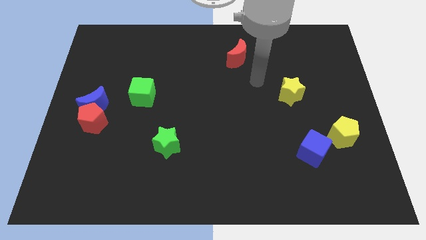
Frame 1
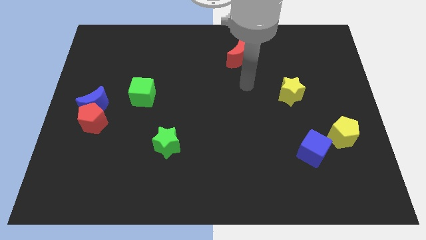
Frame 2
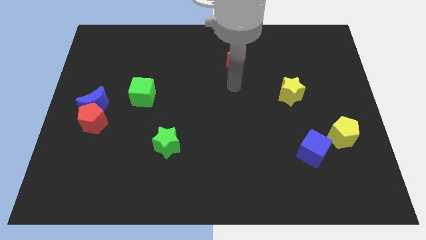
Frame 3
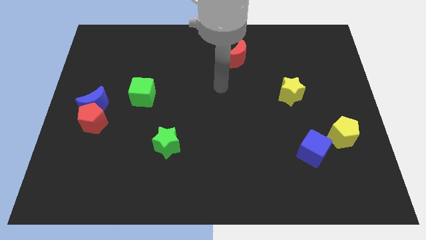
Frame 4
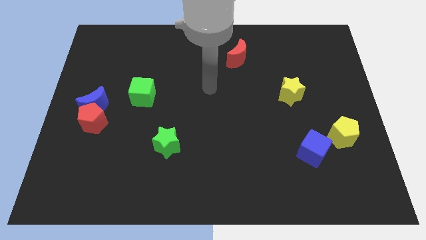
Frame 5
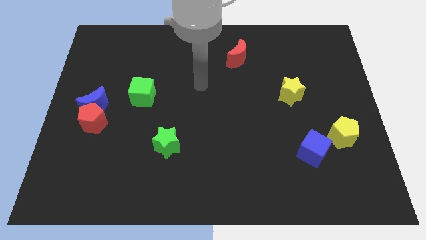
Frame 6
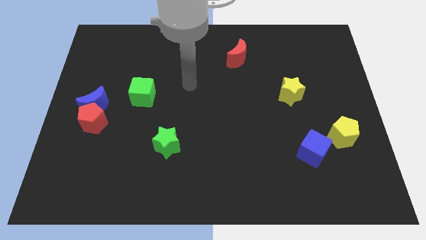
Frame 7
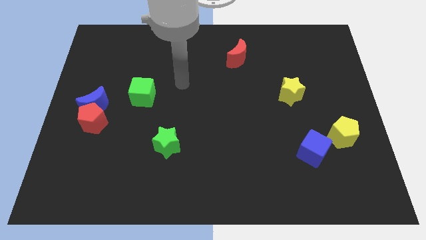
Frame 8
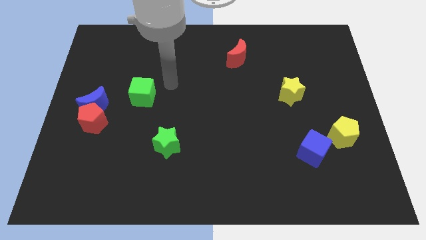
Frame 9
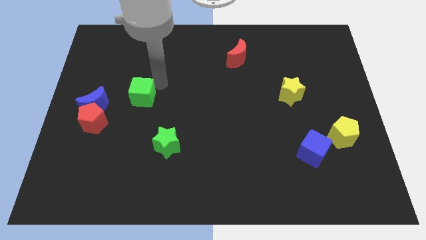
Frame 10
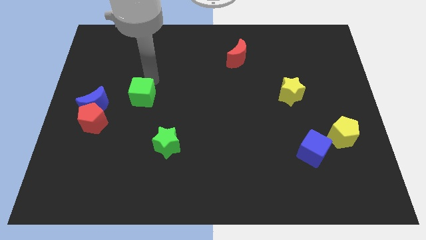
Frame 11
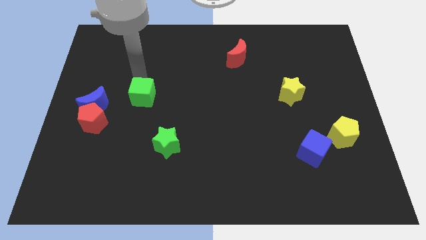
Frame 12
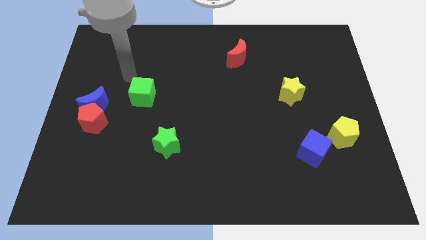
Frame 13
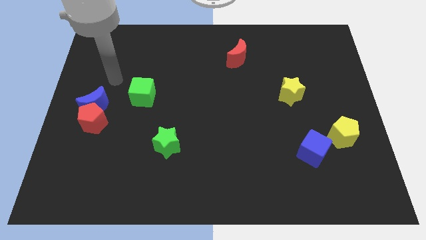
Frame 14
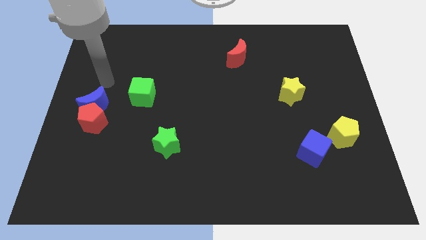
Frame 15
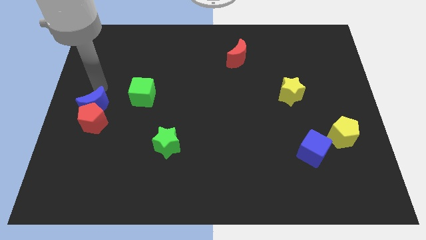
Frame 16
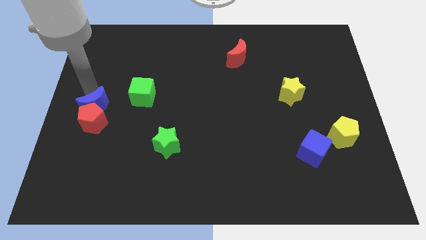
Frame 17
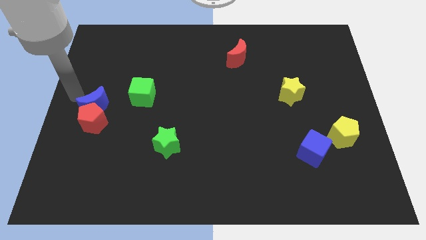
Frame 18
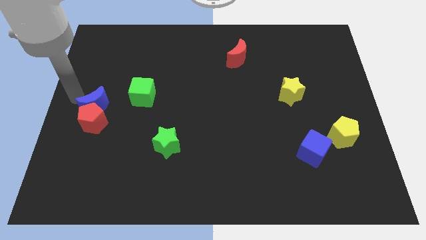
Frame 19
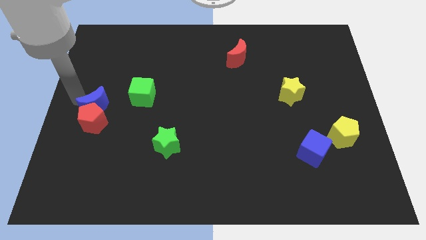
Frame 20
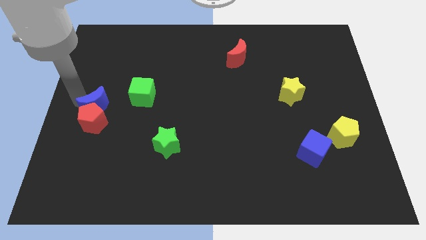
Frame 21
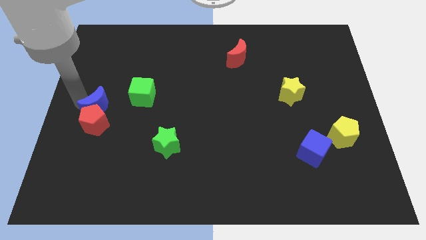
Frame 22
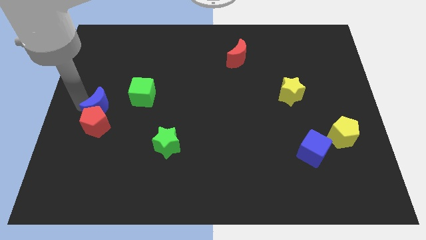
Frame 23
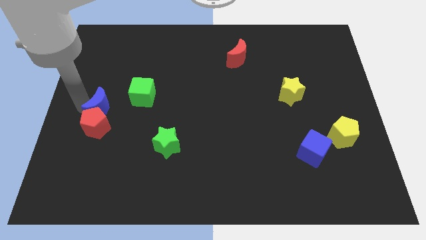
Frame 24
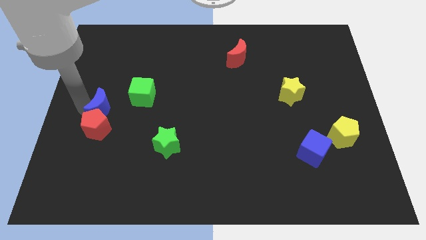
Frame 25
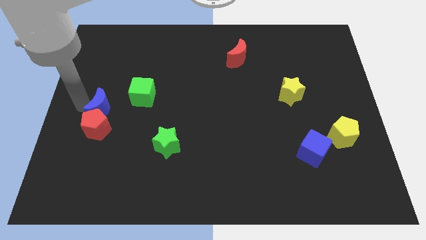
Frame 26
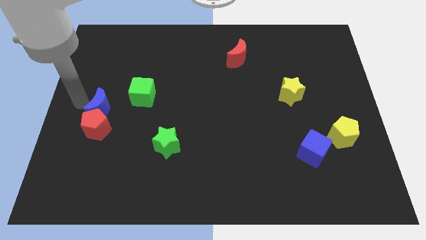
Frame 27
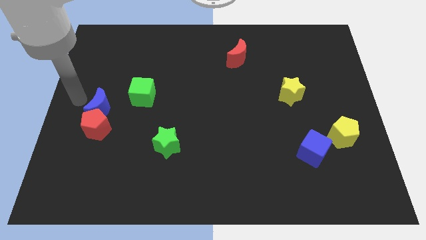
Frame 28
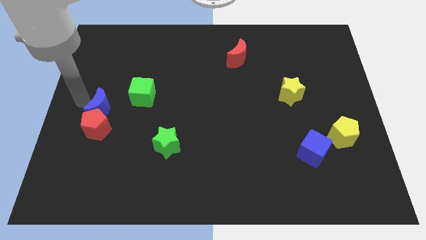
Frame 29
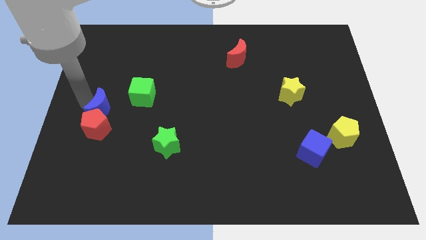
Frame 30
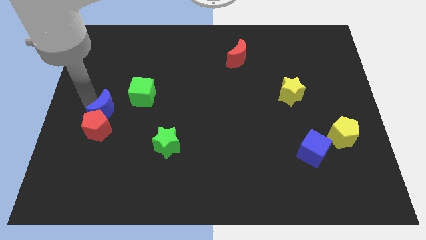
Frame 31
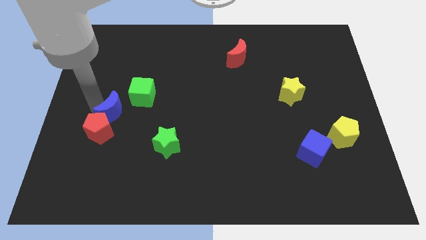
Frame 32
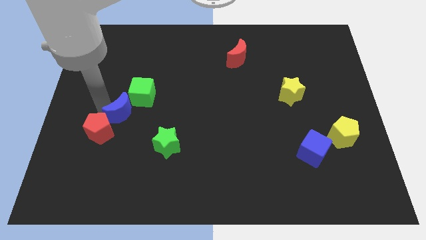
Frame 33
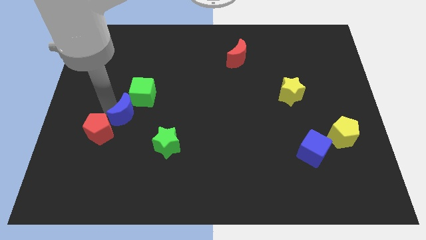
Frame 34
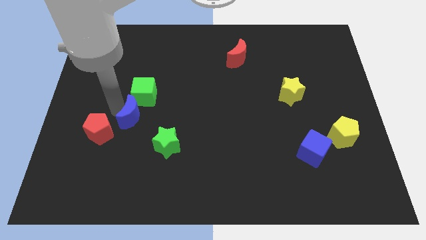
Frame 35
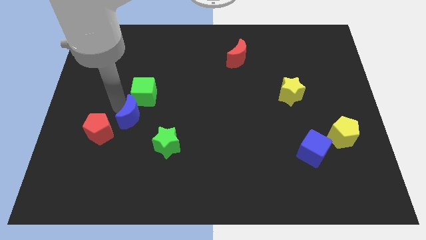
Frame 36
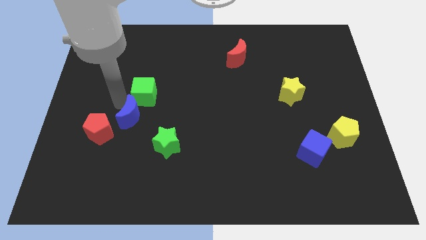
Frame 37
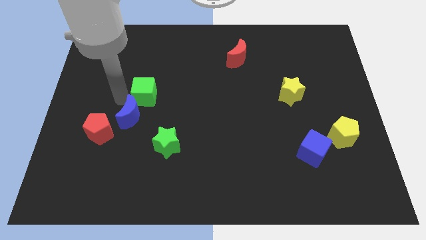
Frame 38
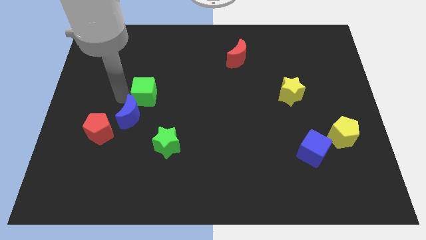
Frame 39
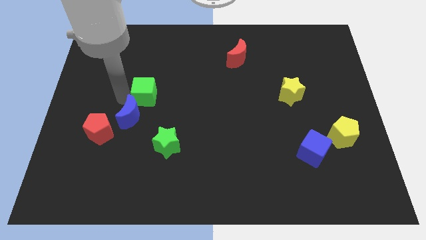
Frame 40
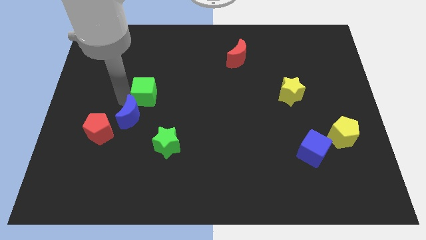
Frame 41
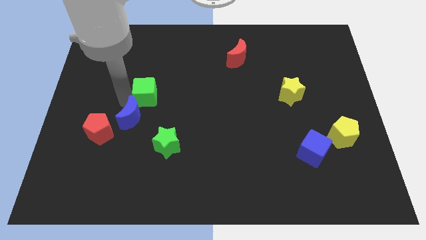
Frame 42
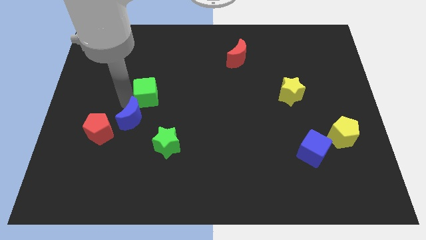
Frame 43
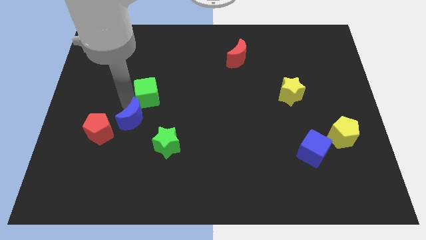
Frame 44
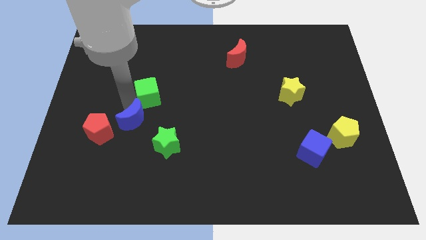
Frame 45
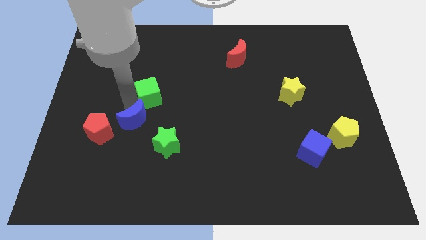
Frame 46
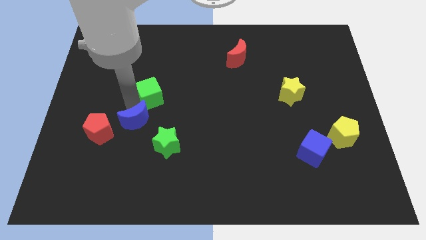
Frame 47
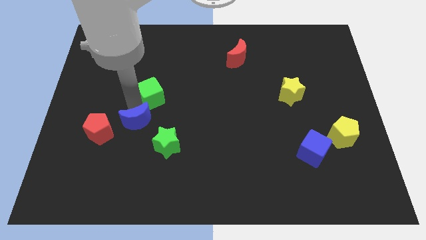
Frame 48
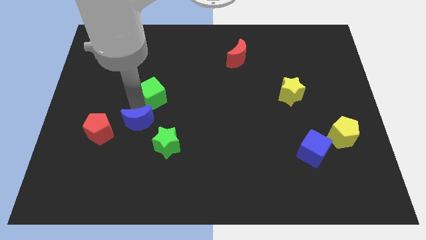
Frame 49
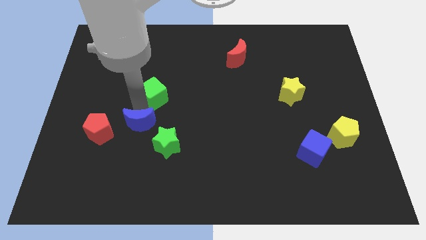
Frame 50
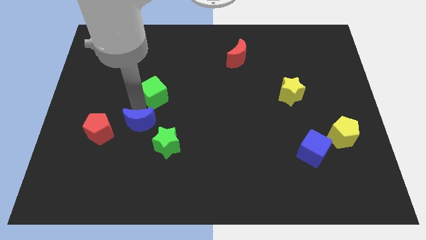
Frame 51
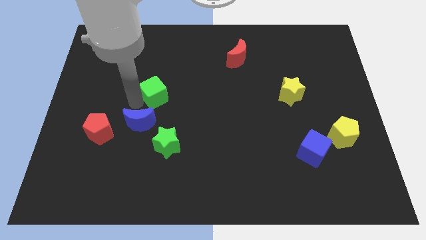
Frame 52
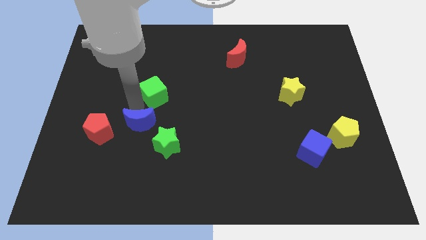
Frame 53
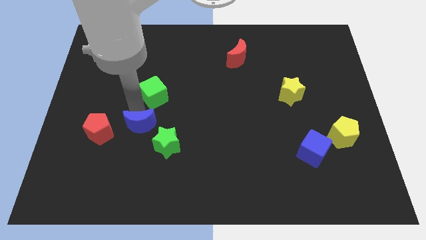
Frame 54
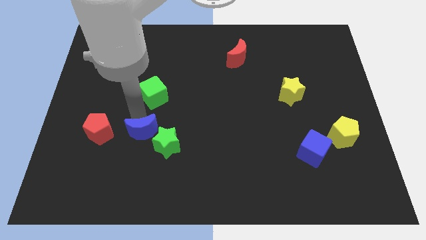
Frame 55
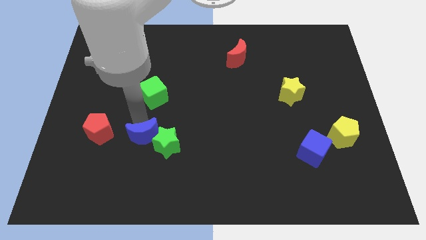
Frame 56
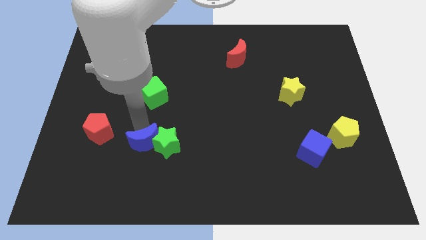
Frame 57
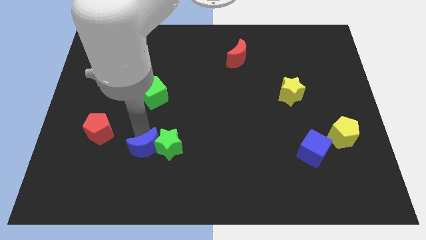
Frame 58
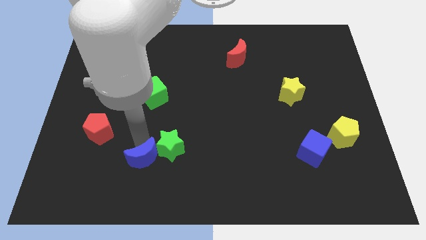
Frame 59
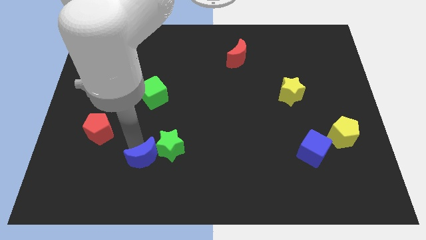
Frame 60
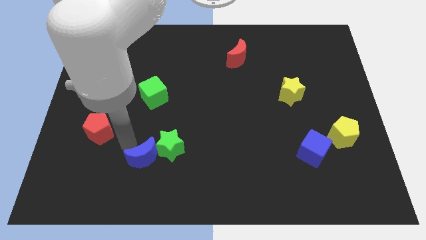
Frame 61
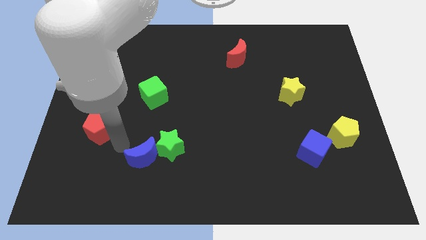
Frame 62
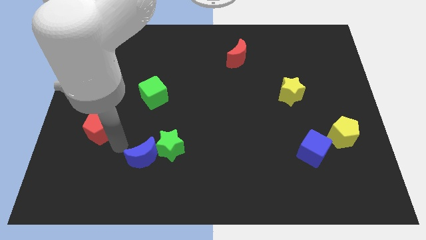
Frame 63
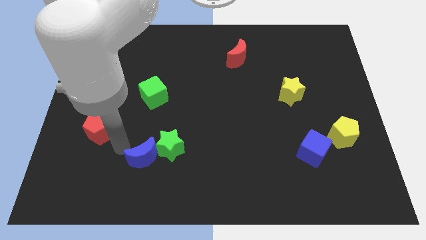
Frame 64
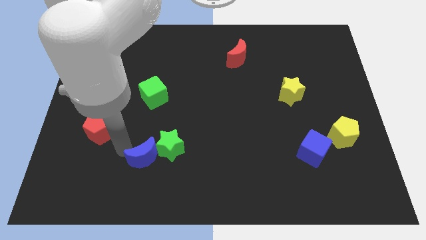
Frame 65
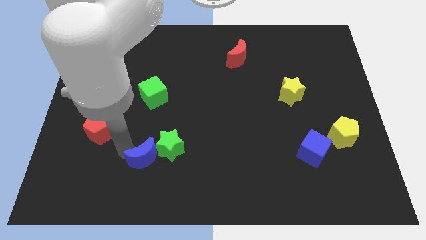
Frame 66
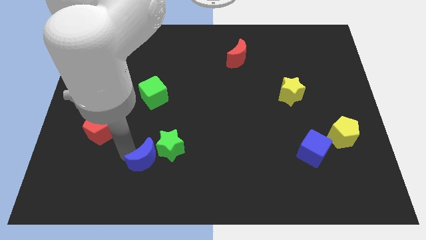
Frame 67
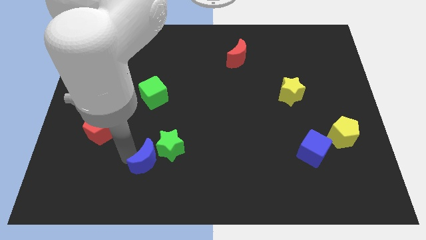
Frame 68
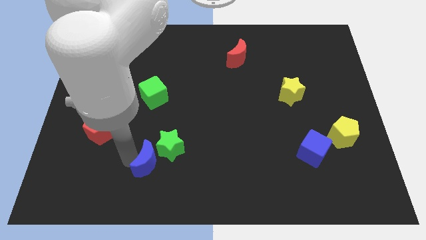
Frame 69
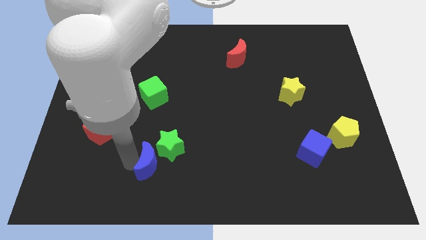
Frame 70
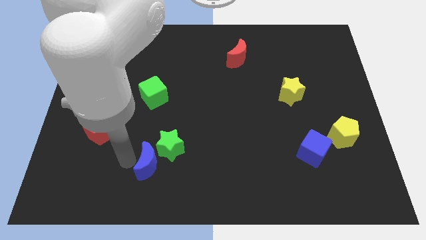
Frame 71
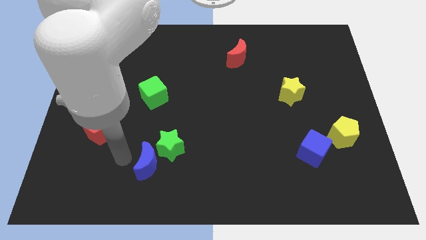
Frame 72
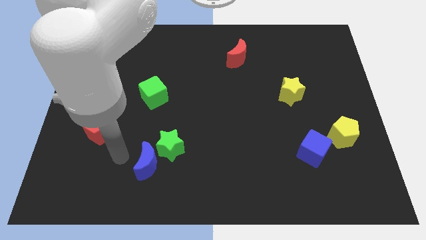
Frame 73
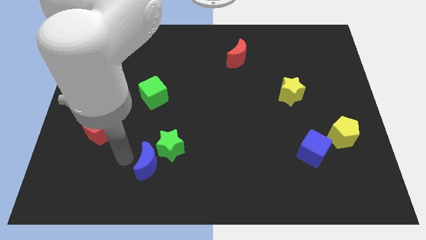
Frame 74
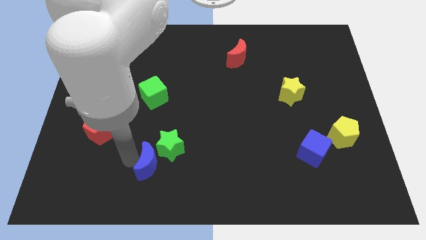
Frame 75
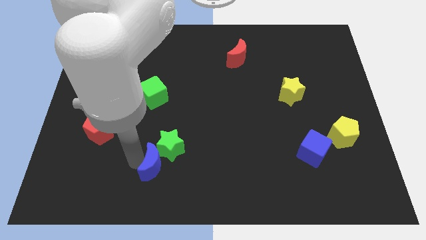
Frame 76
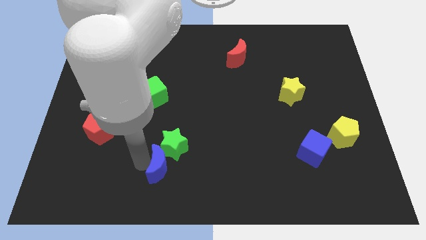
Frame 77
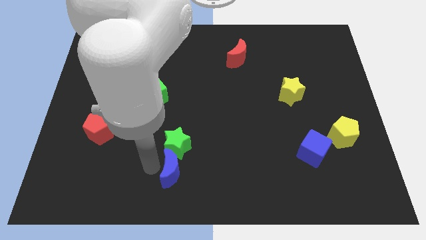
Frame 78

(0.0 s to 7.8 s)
move the blue moon to the bottom right of the green star
